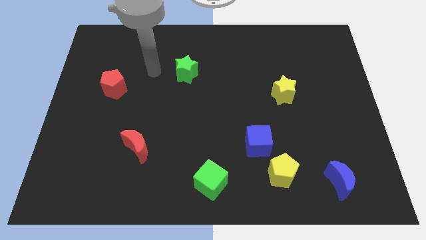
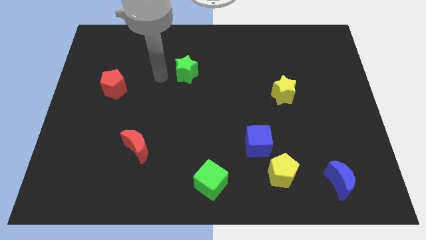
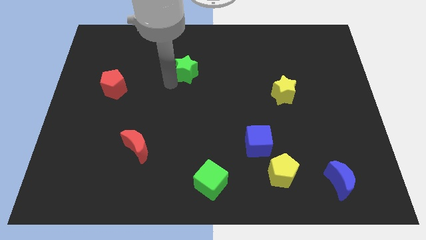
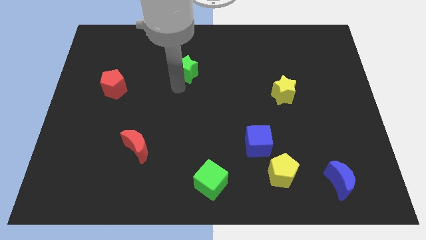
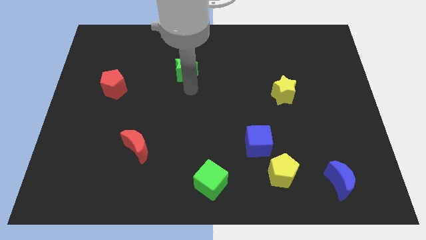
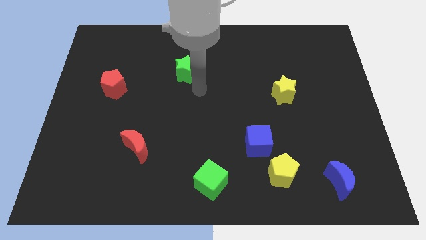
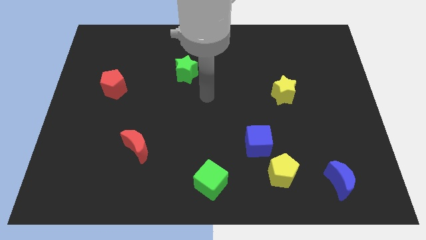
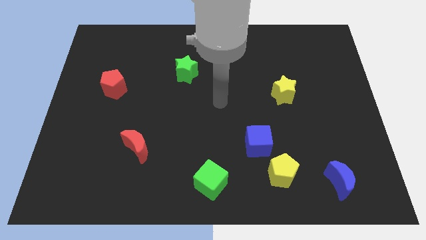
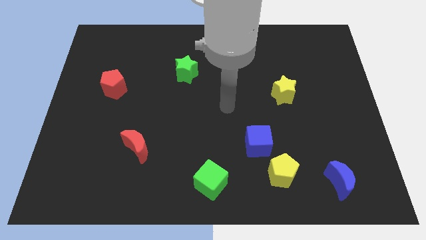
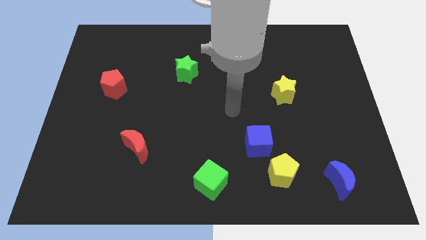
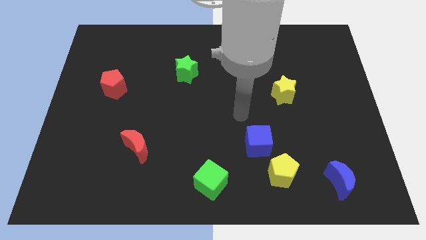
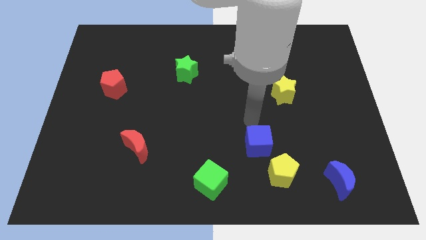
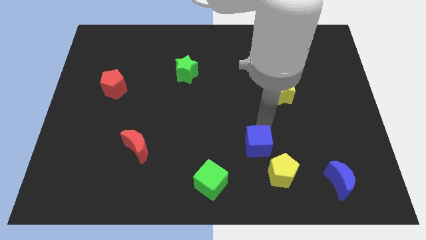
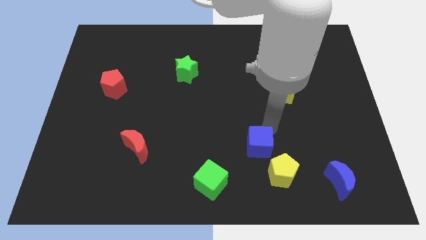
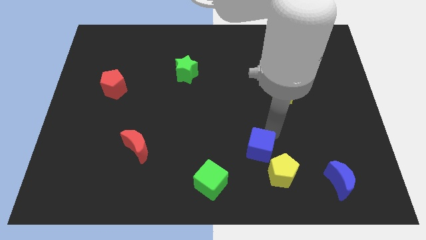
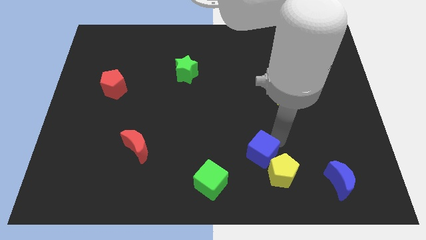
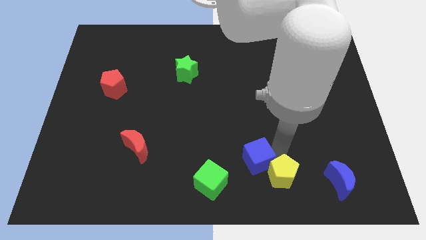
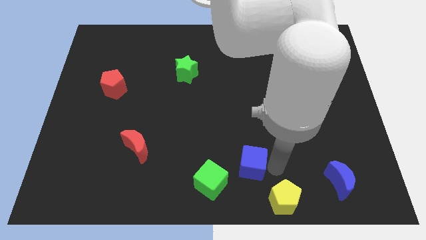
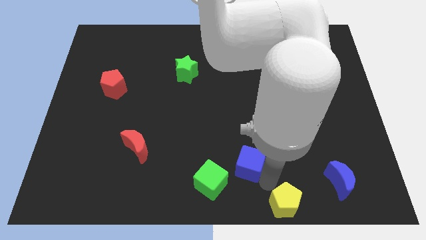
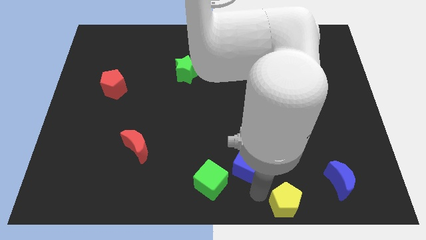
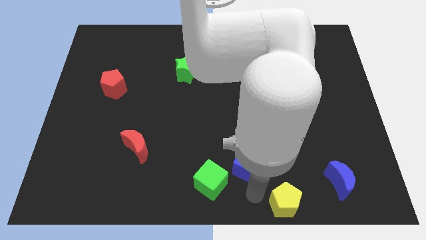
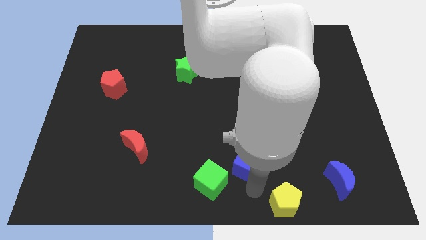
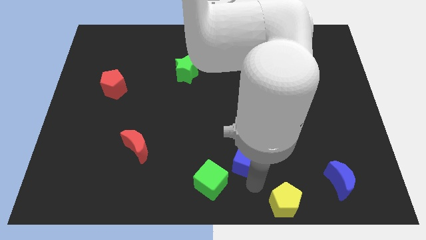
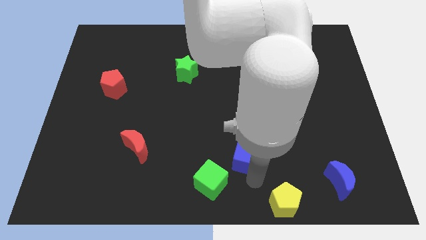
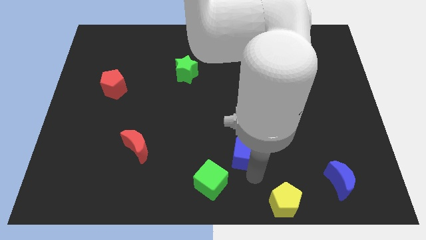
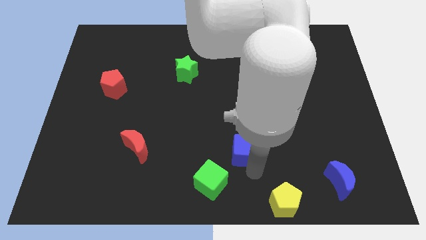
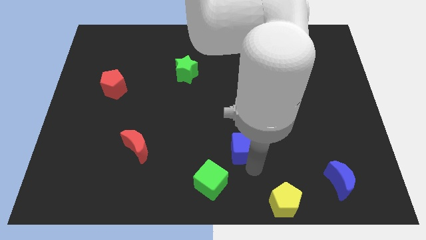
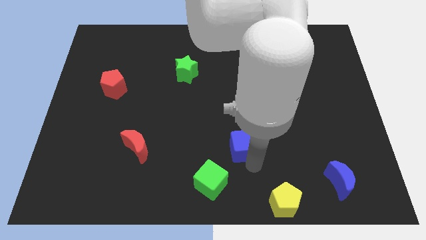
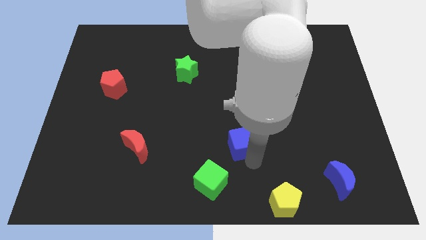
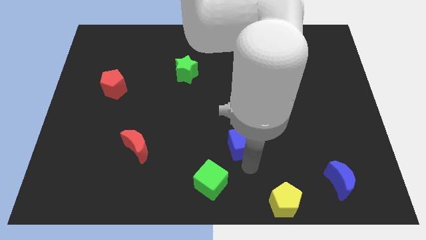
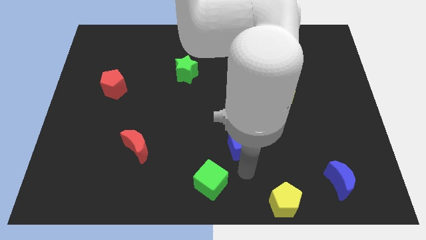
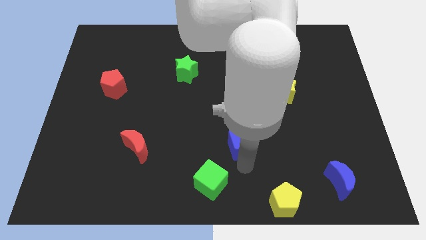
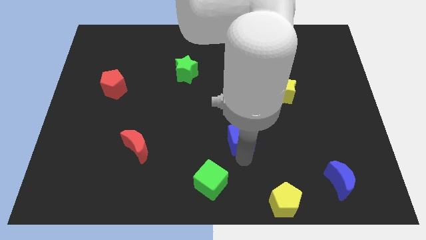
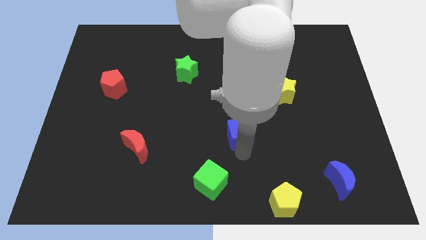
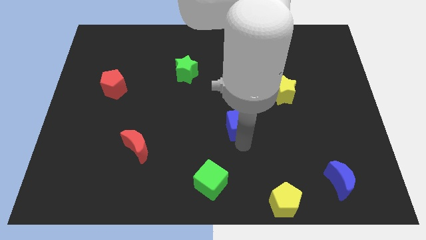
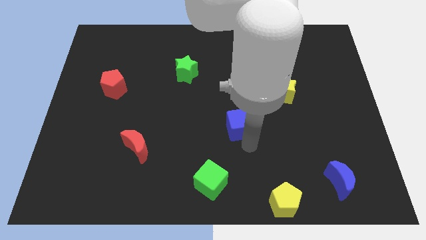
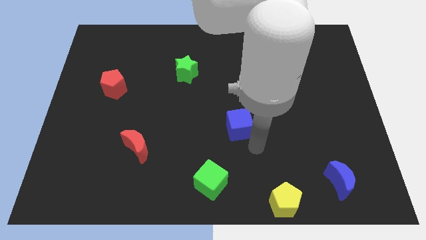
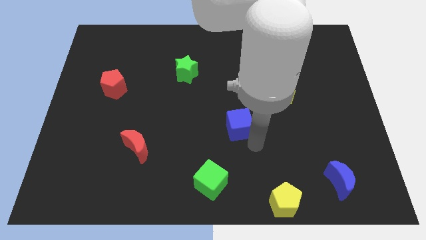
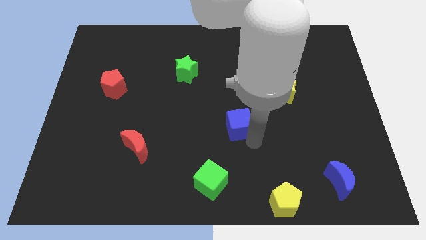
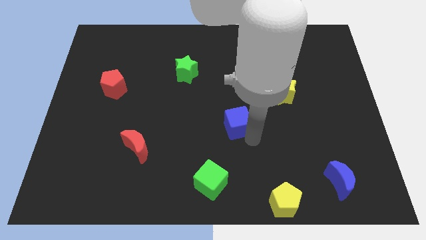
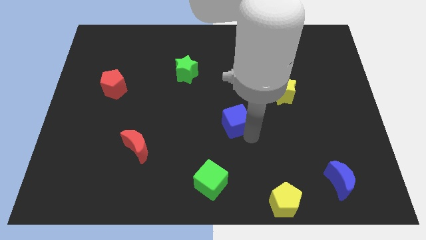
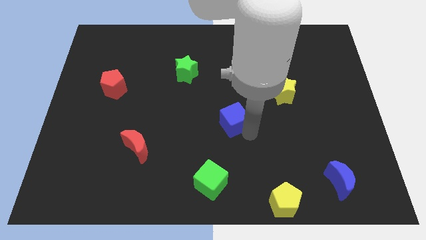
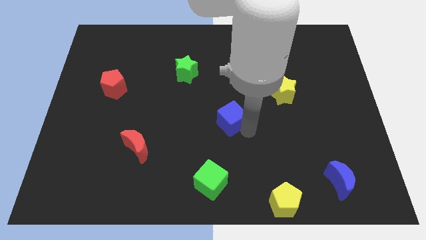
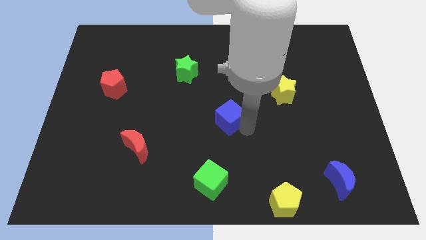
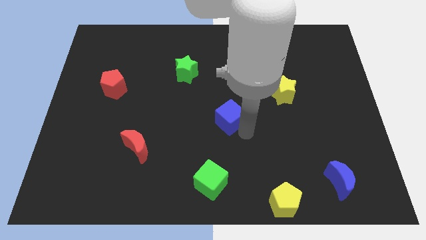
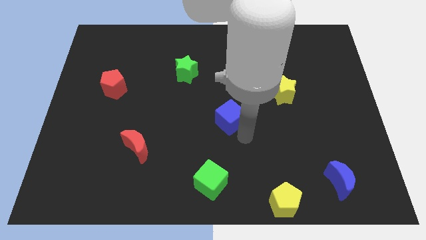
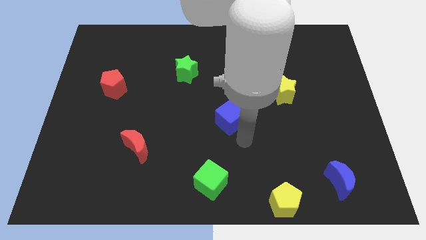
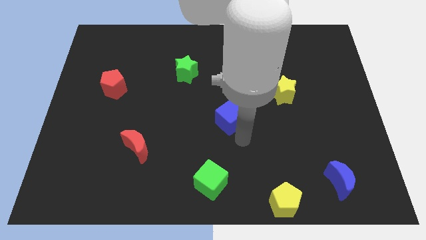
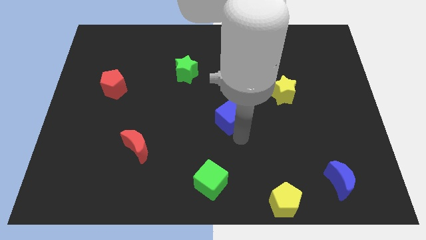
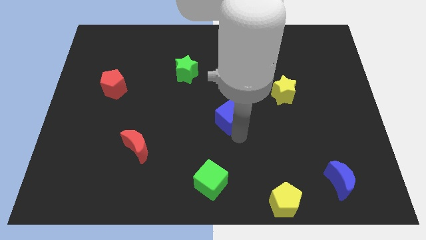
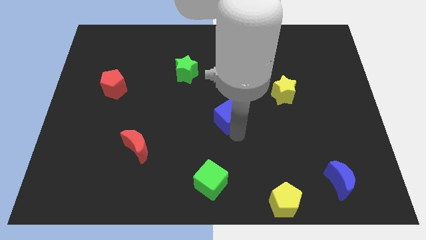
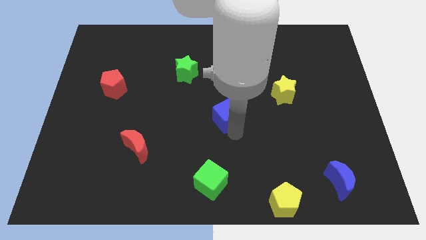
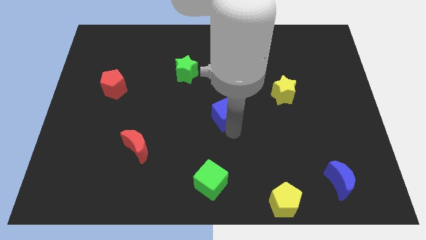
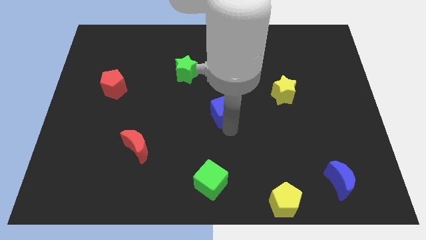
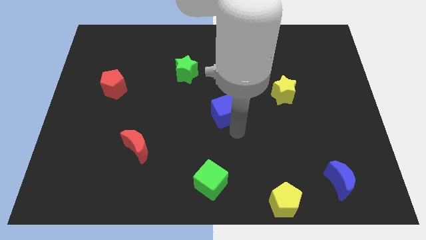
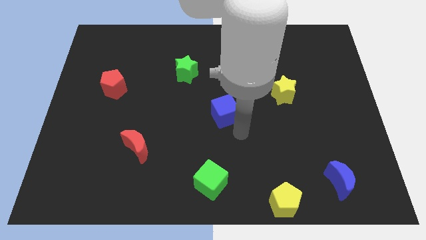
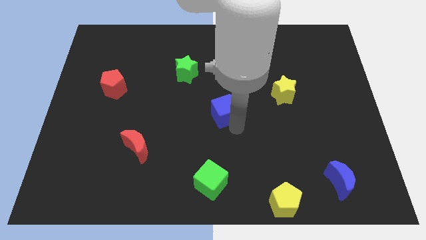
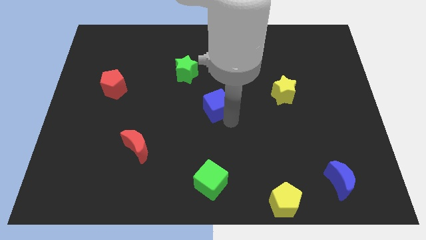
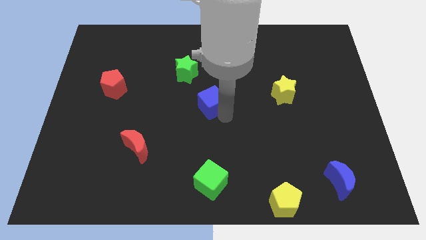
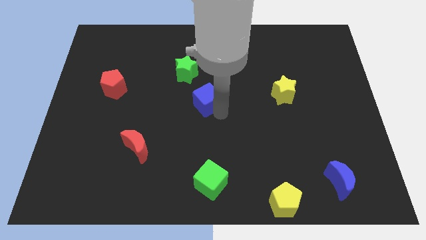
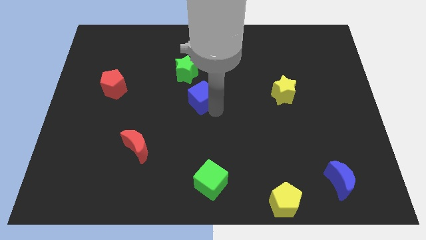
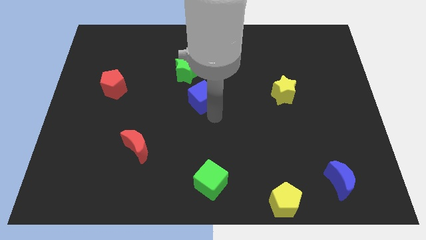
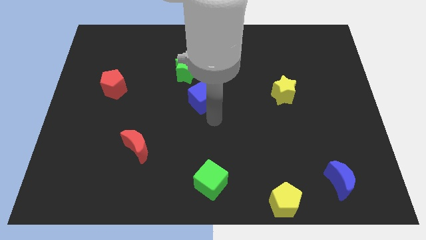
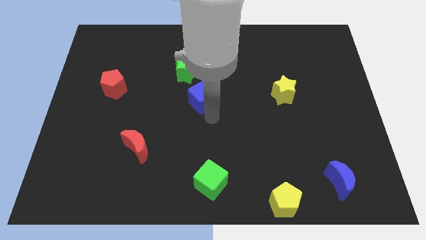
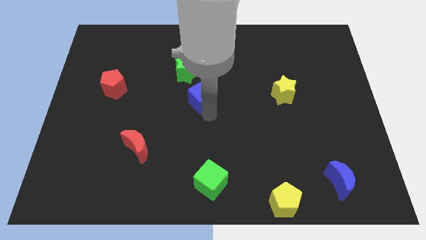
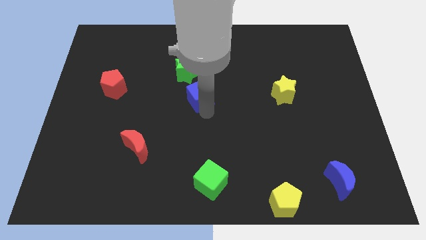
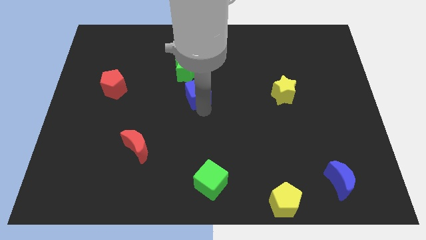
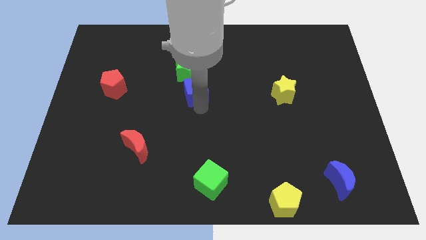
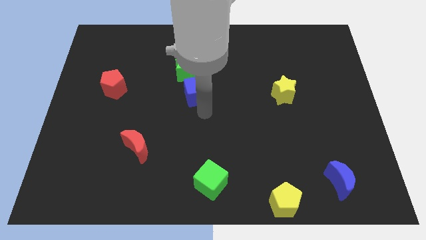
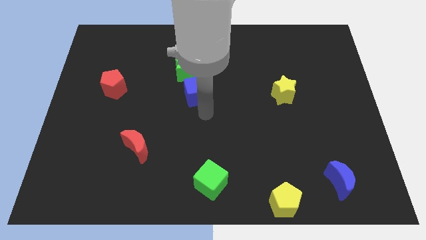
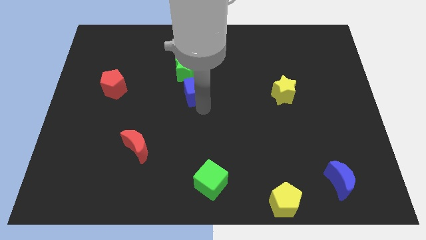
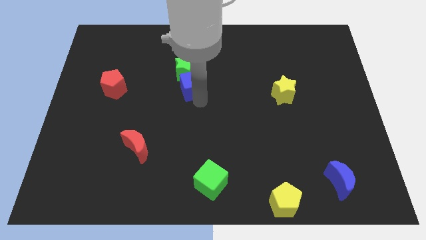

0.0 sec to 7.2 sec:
move the blue cube towards the green star
